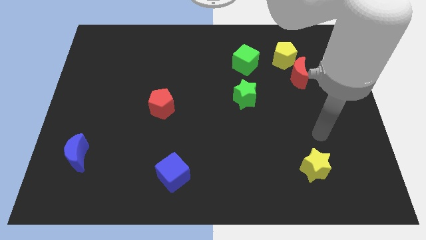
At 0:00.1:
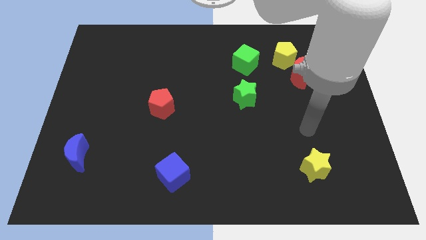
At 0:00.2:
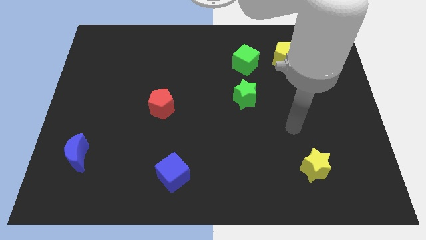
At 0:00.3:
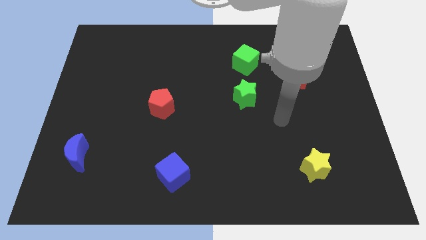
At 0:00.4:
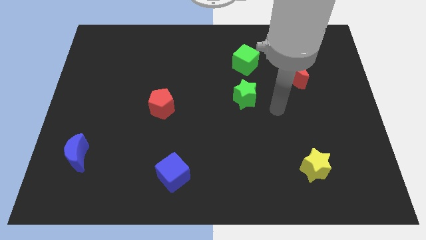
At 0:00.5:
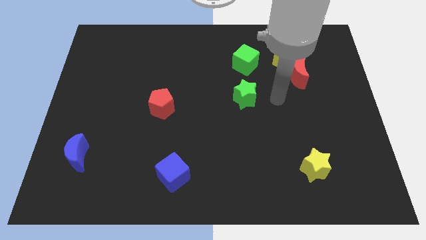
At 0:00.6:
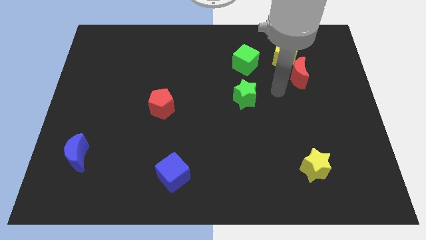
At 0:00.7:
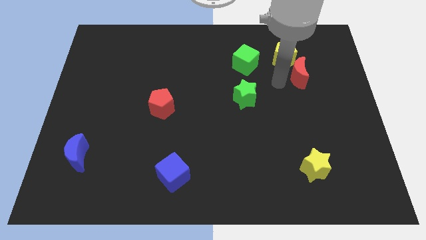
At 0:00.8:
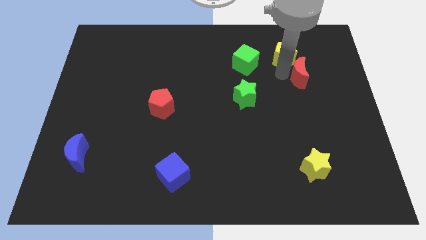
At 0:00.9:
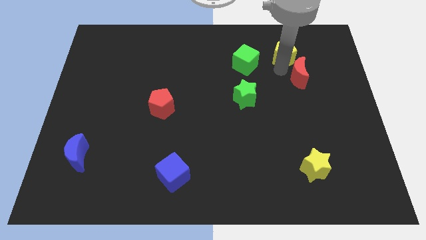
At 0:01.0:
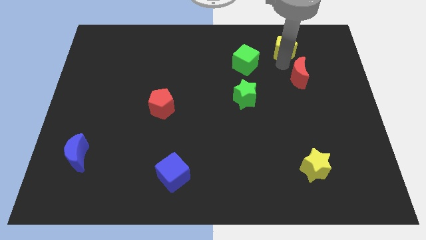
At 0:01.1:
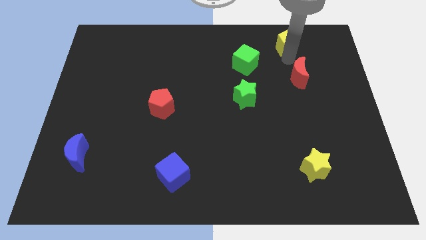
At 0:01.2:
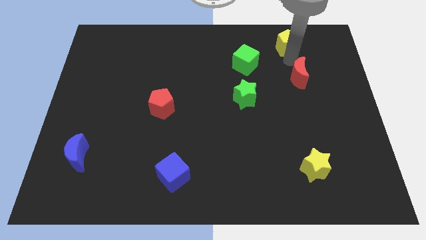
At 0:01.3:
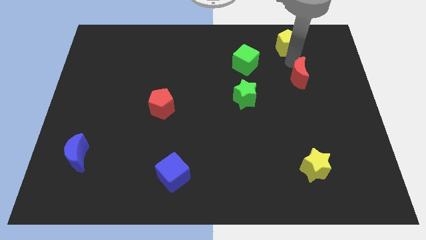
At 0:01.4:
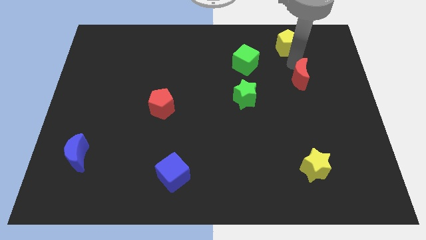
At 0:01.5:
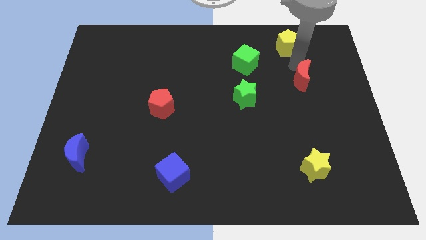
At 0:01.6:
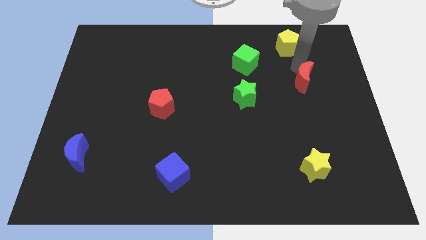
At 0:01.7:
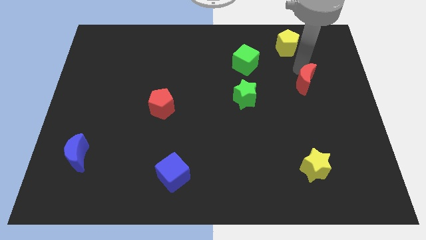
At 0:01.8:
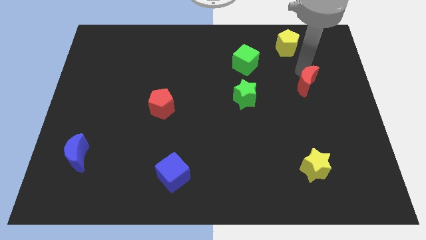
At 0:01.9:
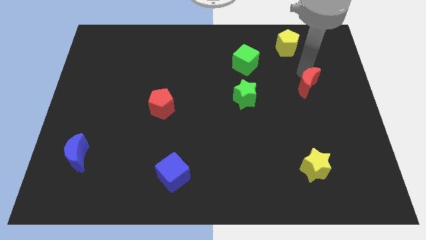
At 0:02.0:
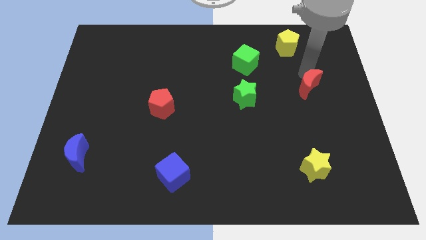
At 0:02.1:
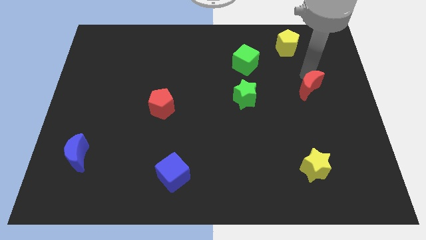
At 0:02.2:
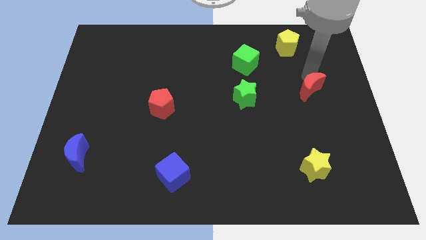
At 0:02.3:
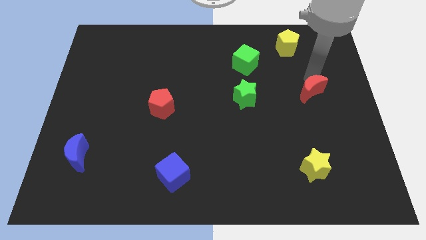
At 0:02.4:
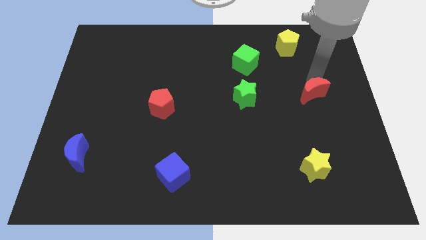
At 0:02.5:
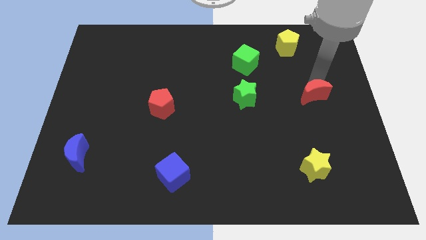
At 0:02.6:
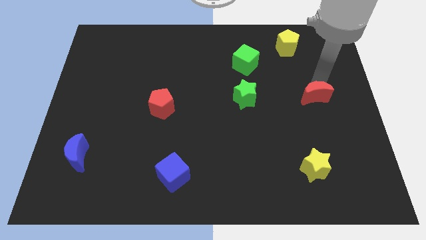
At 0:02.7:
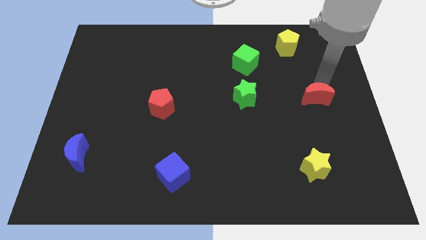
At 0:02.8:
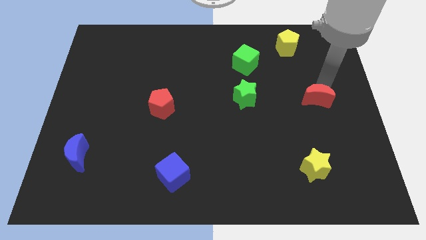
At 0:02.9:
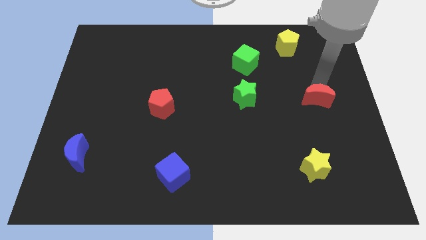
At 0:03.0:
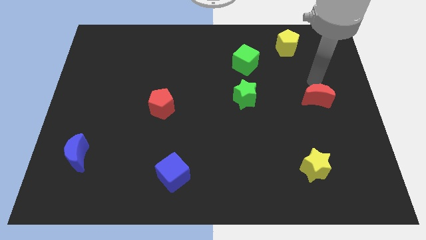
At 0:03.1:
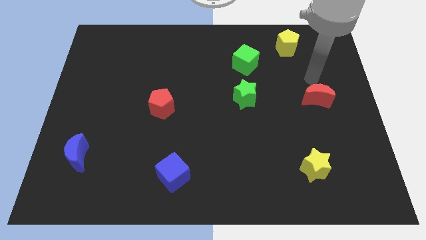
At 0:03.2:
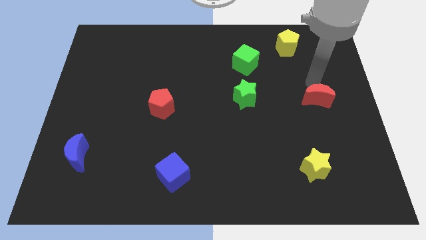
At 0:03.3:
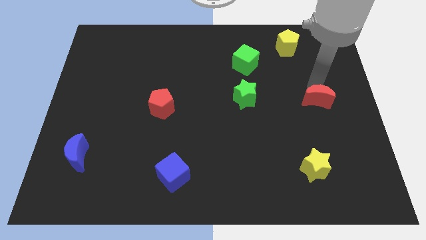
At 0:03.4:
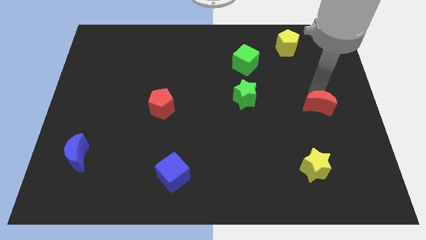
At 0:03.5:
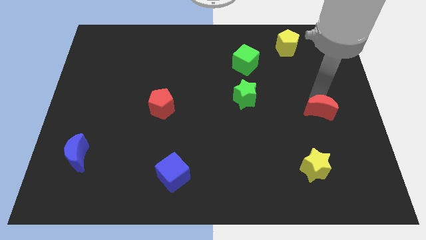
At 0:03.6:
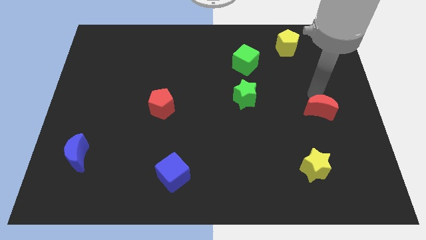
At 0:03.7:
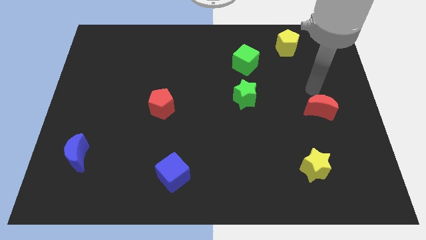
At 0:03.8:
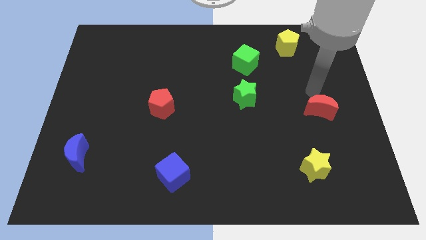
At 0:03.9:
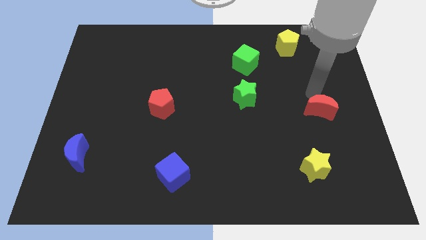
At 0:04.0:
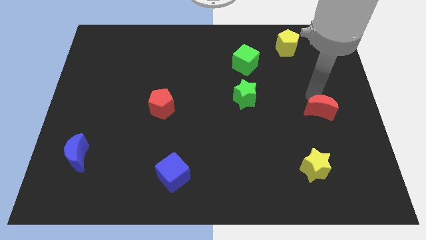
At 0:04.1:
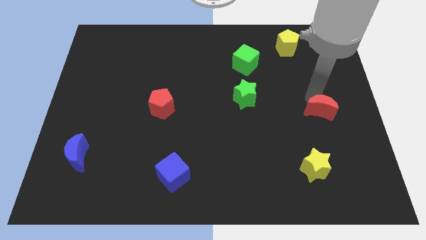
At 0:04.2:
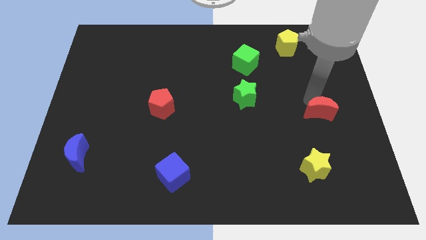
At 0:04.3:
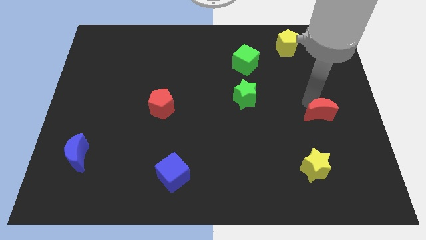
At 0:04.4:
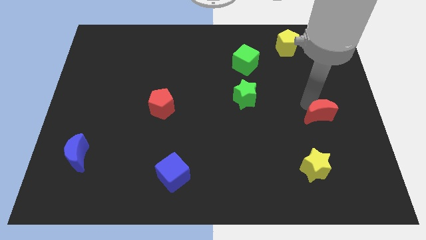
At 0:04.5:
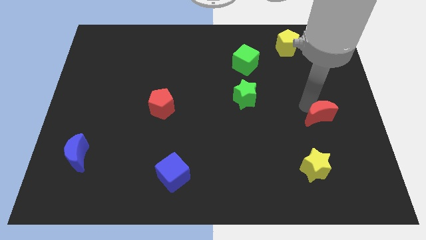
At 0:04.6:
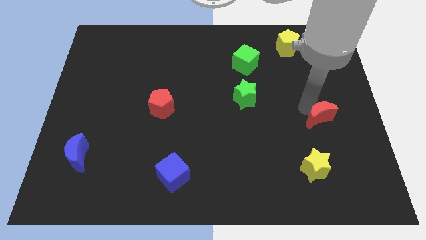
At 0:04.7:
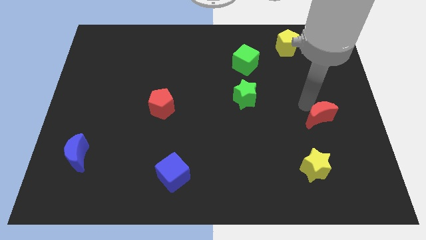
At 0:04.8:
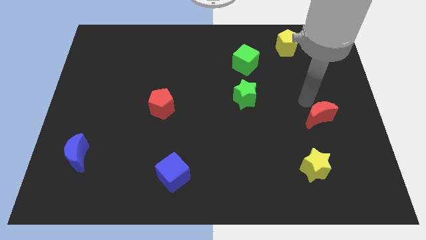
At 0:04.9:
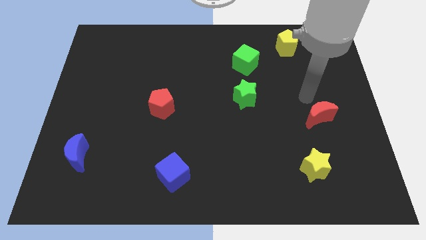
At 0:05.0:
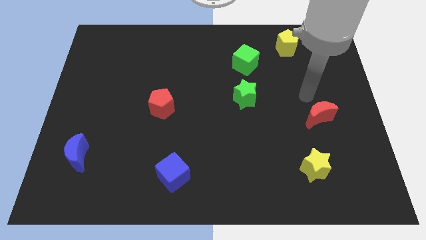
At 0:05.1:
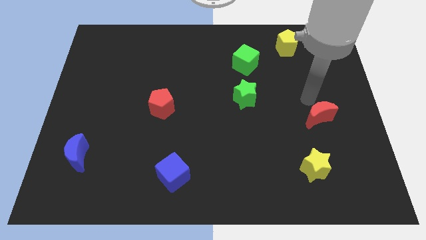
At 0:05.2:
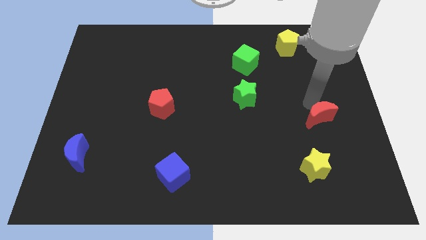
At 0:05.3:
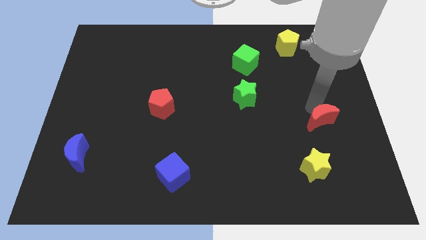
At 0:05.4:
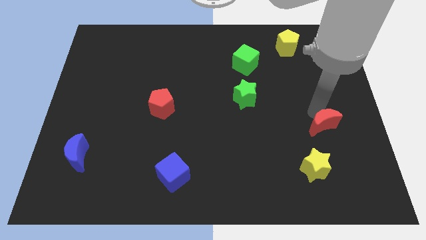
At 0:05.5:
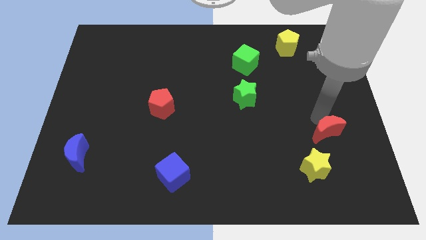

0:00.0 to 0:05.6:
put the red moon to the top right side of the yellow star

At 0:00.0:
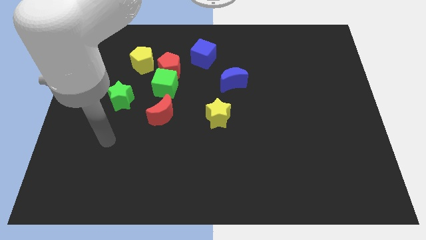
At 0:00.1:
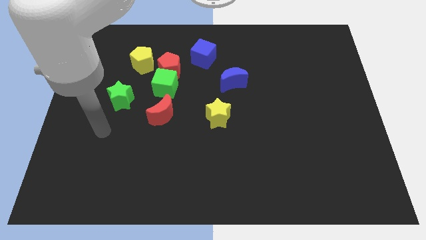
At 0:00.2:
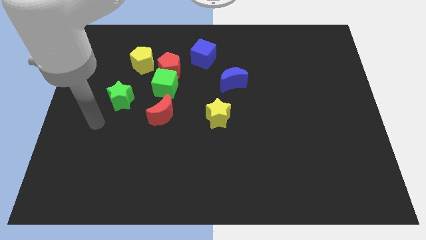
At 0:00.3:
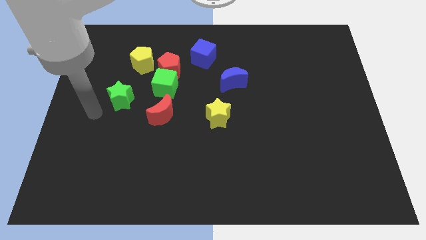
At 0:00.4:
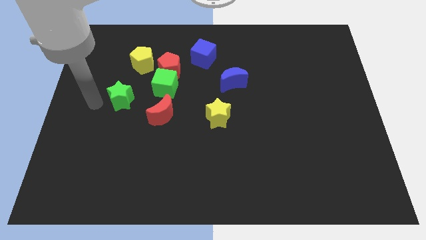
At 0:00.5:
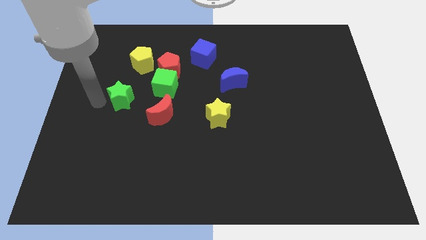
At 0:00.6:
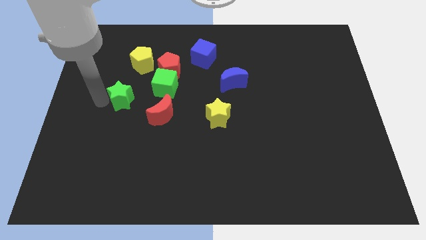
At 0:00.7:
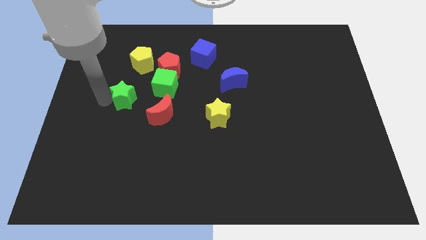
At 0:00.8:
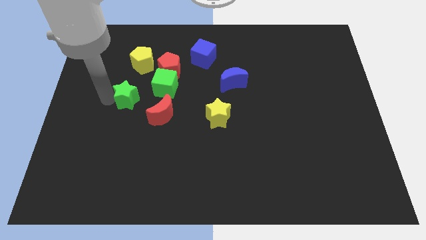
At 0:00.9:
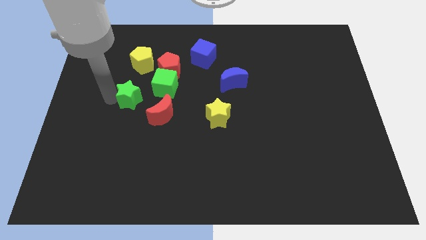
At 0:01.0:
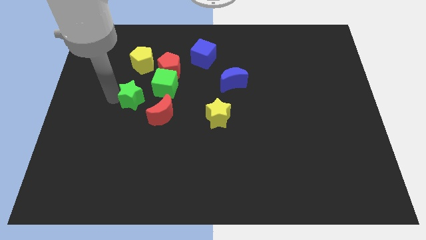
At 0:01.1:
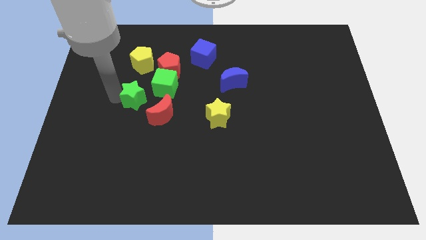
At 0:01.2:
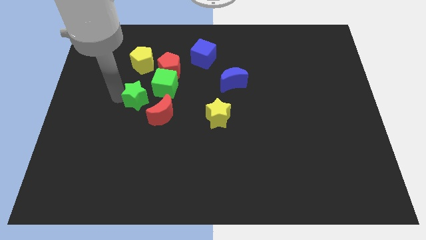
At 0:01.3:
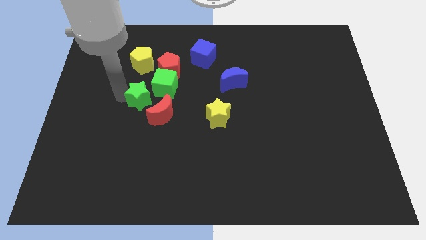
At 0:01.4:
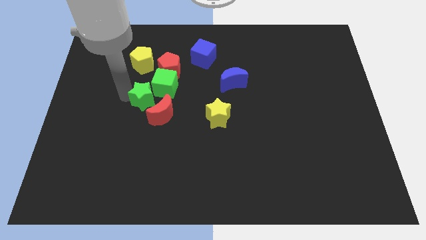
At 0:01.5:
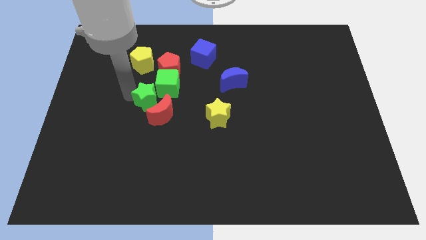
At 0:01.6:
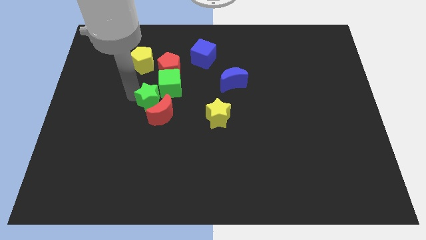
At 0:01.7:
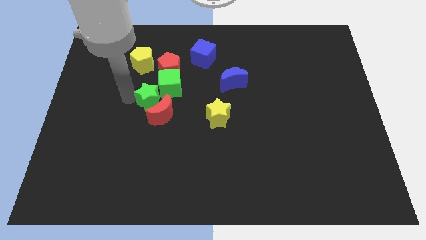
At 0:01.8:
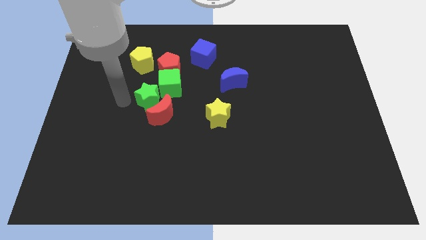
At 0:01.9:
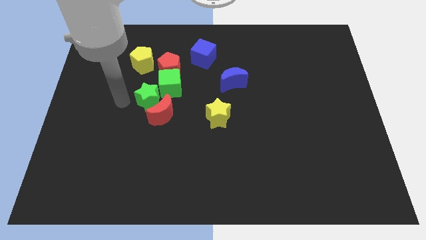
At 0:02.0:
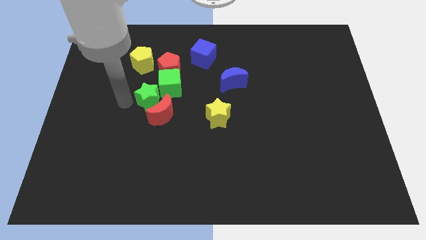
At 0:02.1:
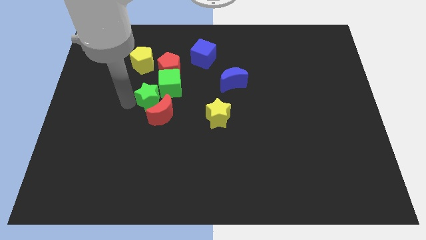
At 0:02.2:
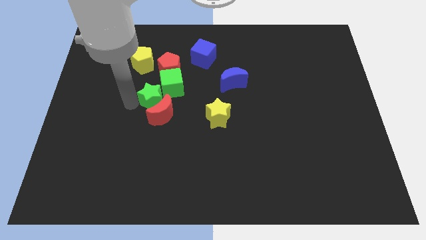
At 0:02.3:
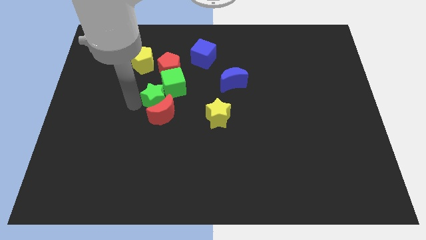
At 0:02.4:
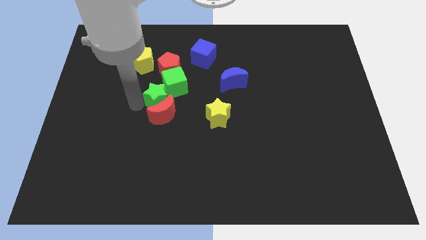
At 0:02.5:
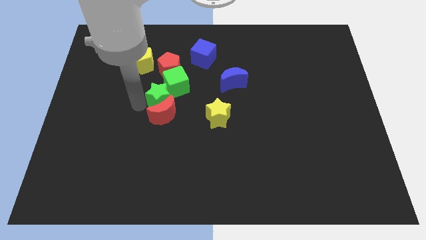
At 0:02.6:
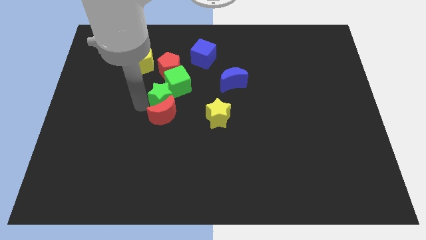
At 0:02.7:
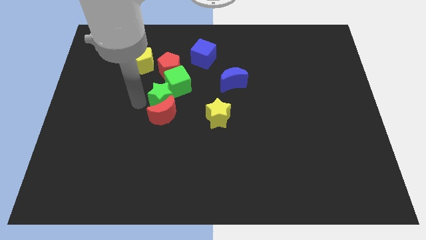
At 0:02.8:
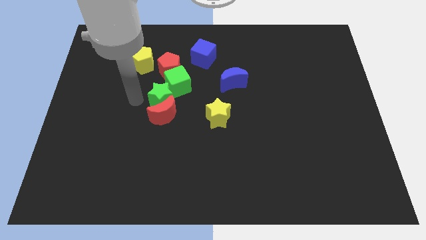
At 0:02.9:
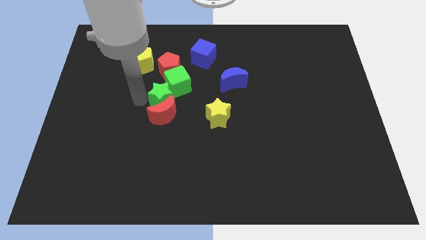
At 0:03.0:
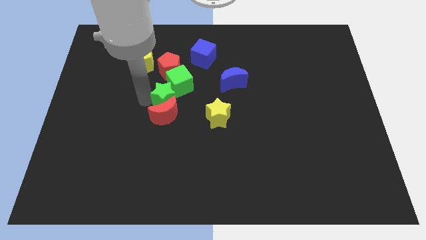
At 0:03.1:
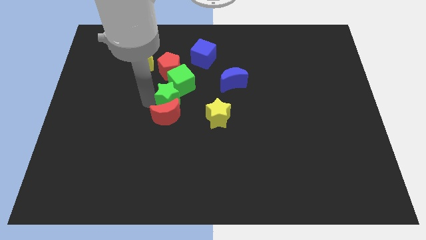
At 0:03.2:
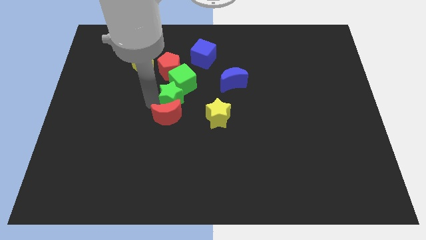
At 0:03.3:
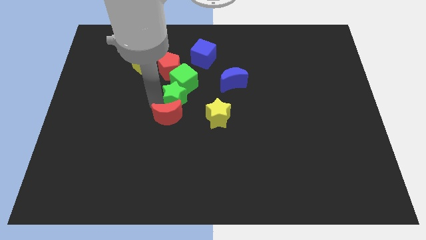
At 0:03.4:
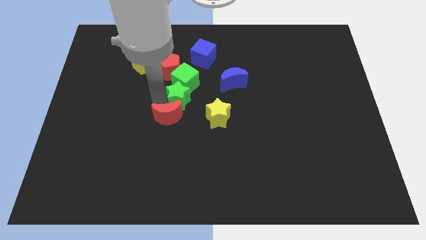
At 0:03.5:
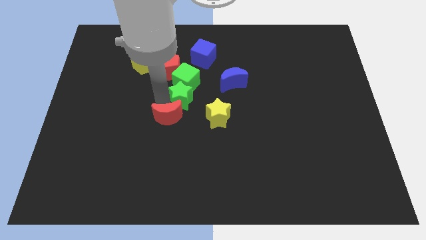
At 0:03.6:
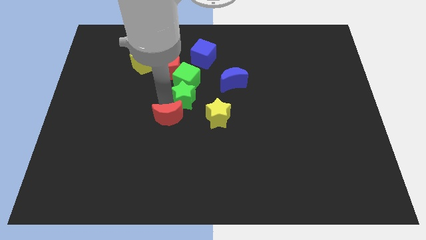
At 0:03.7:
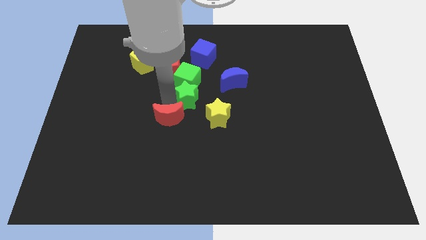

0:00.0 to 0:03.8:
move the green star below the blue cube
